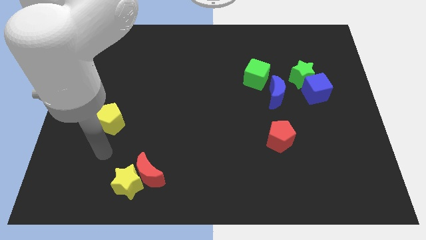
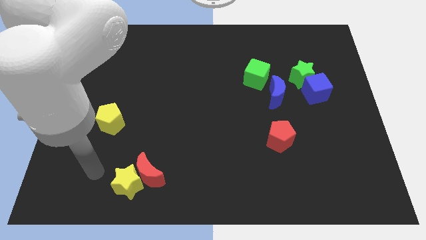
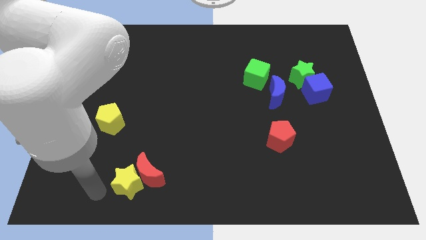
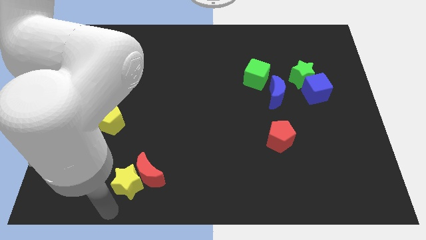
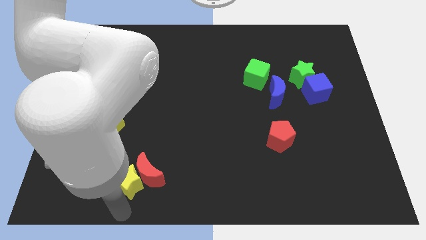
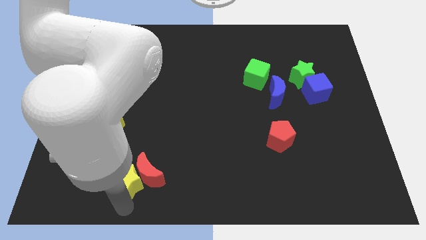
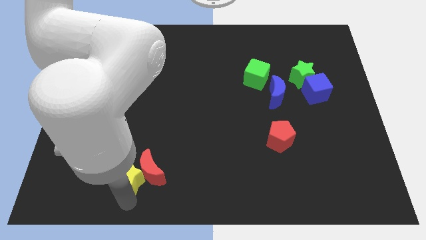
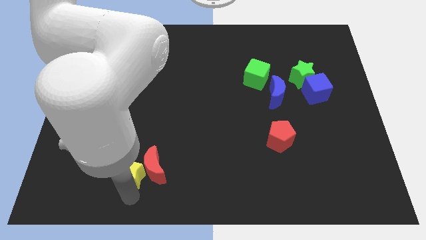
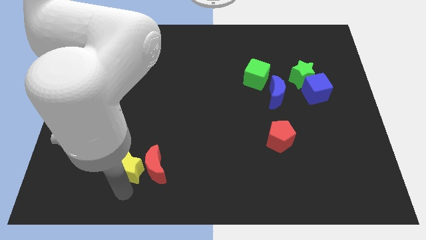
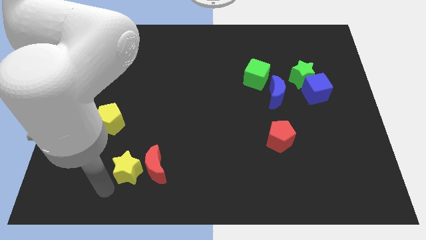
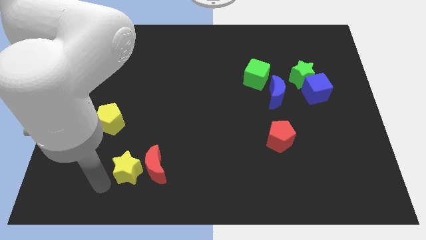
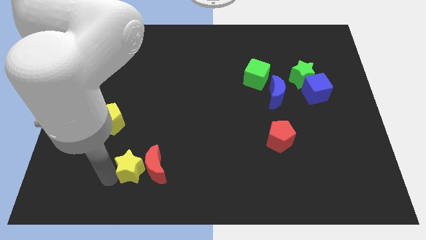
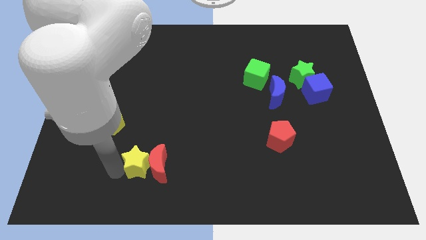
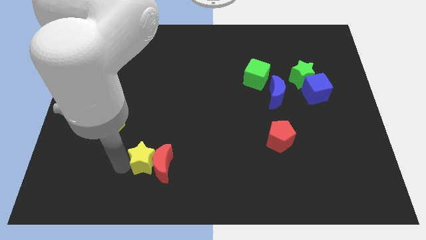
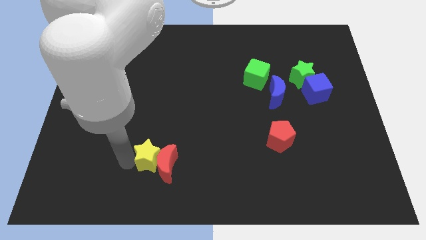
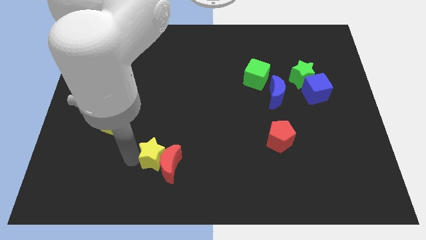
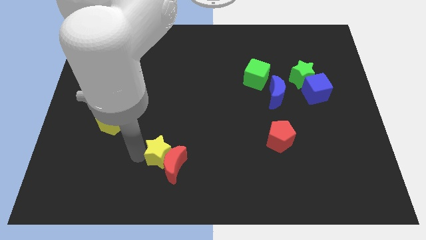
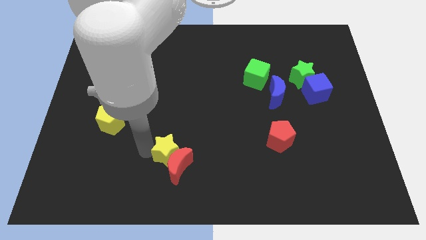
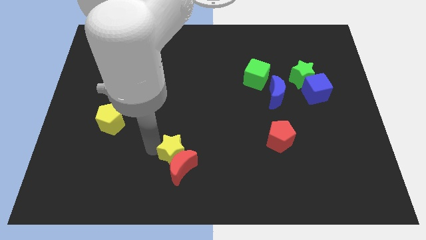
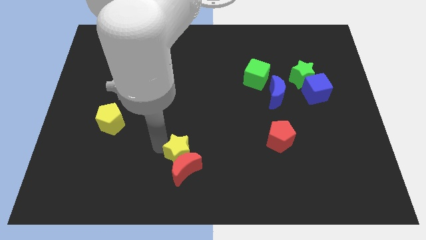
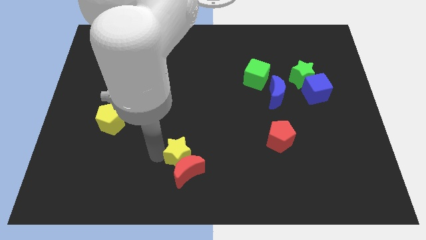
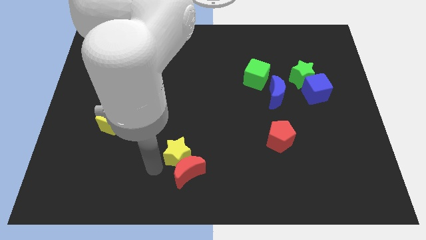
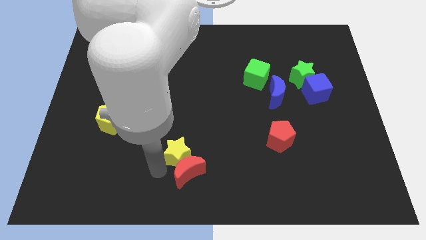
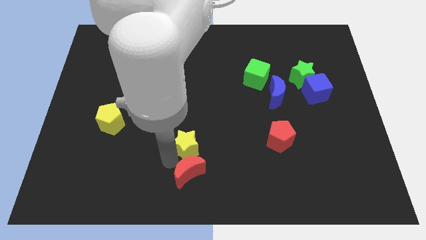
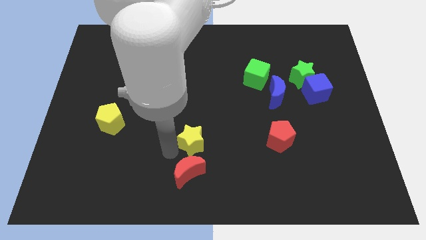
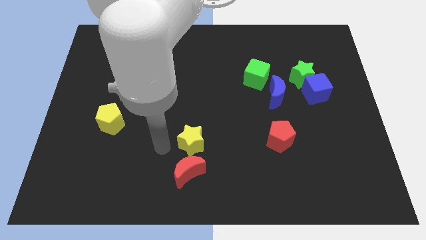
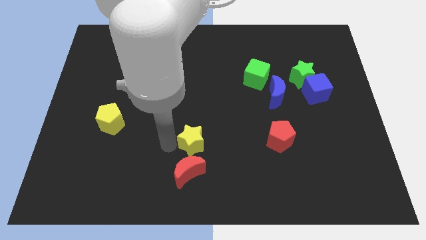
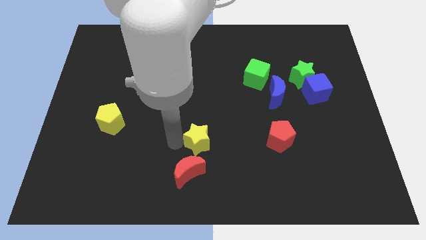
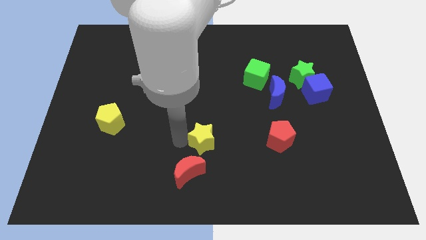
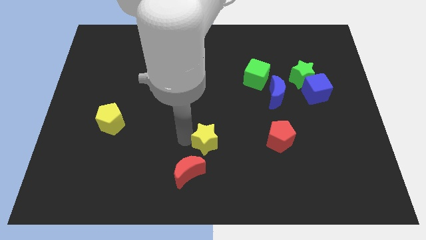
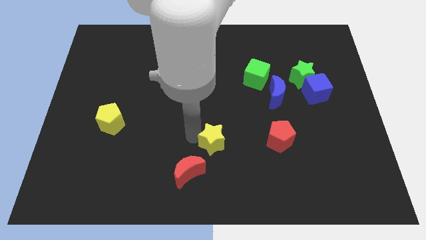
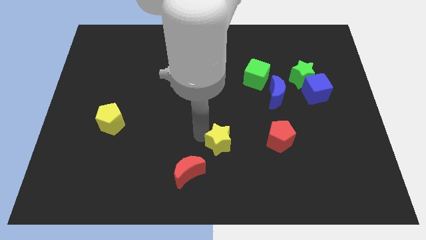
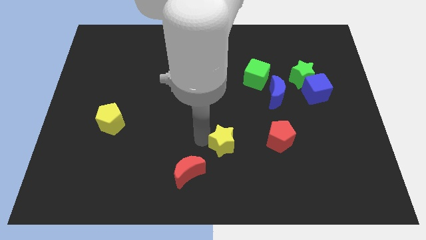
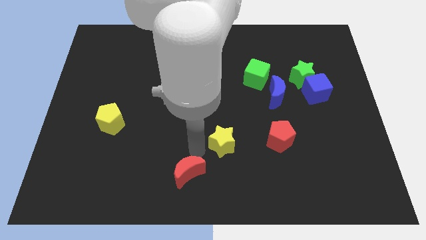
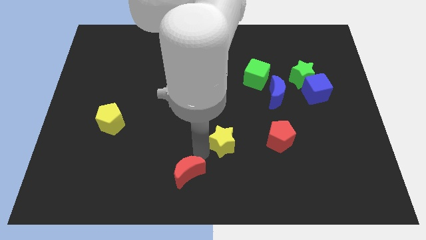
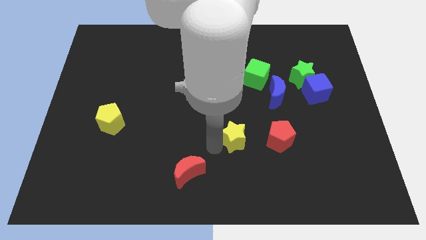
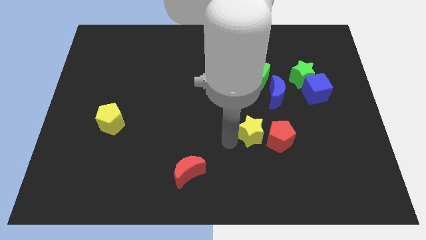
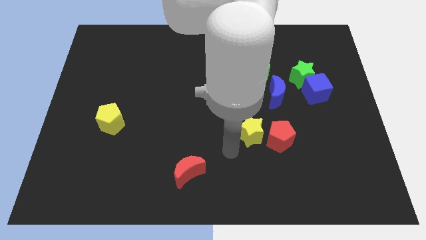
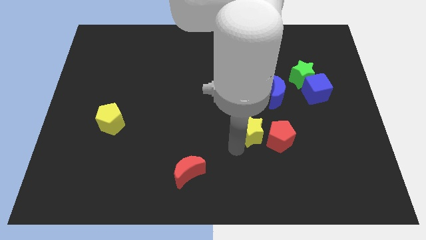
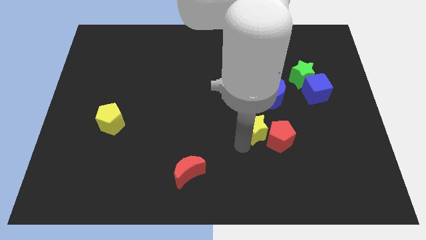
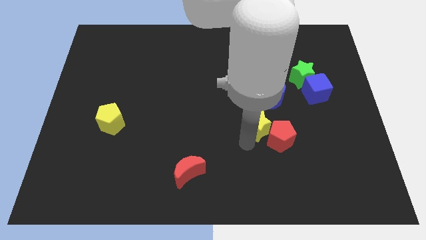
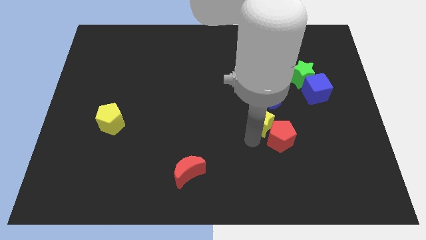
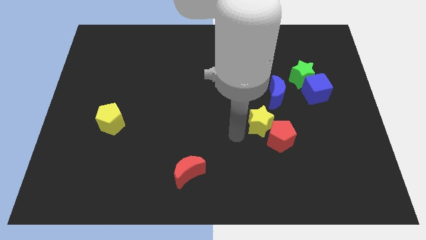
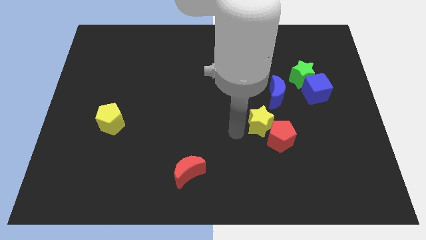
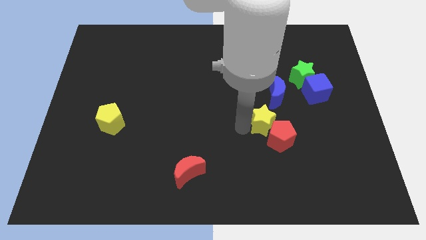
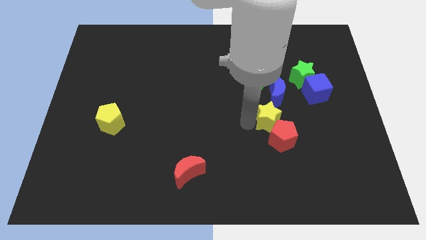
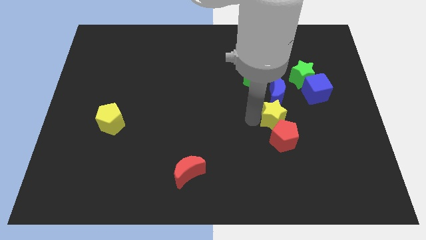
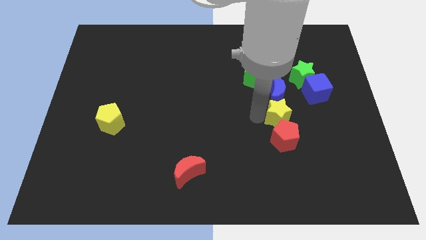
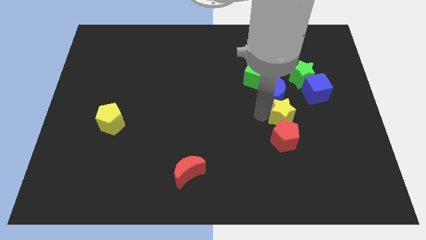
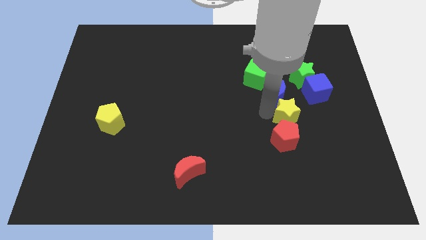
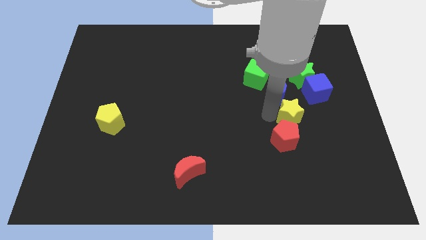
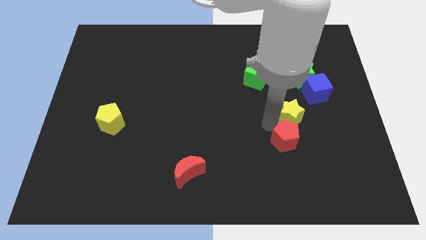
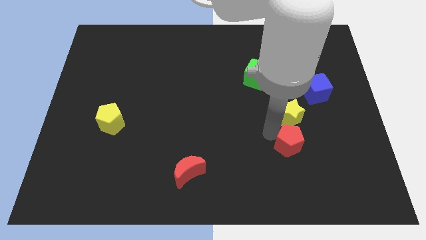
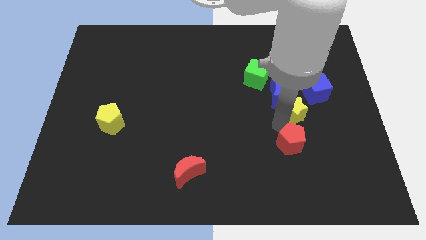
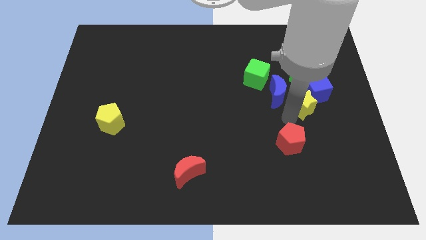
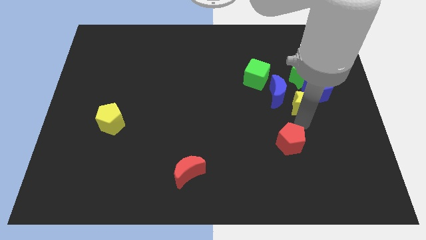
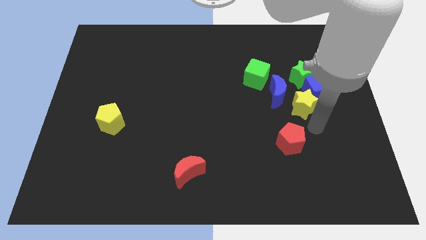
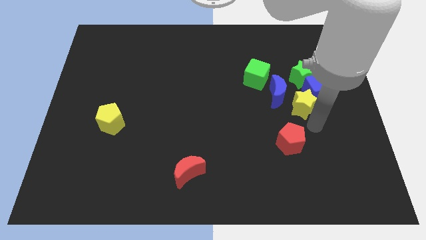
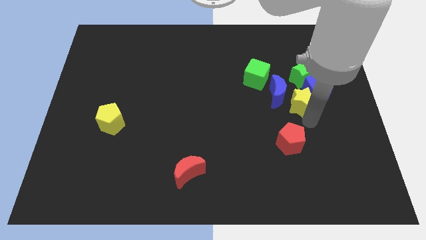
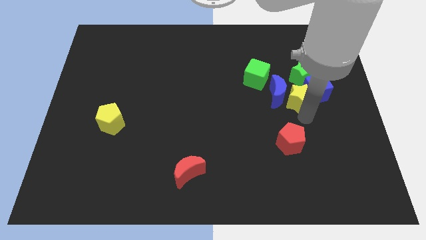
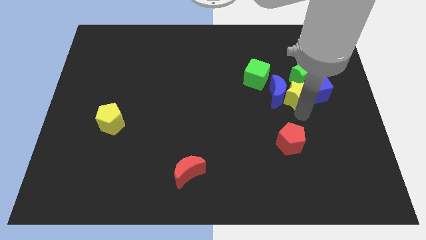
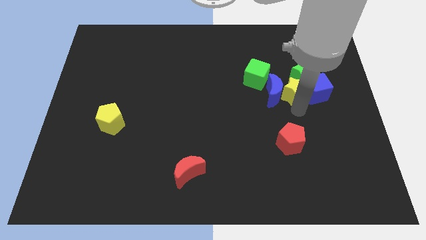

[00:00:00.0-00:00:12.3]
move the yellow star to the green star
